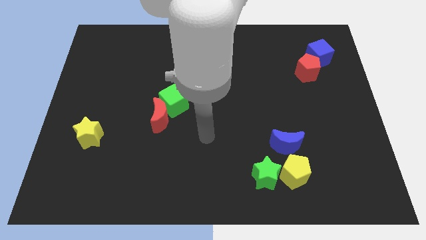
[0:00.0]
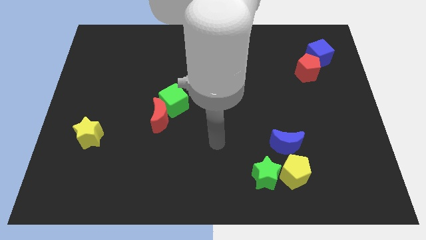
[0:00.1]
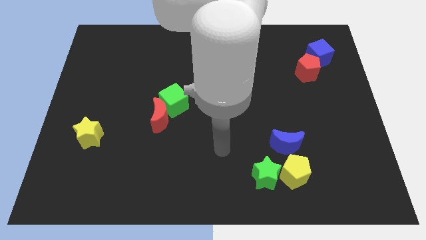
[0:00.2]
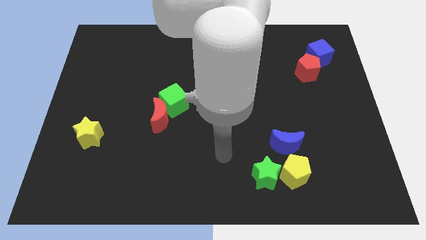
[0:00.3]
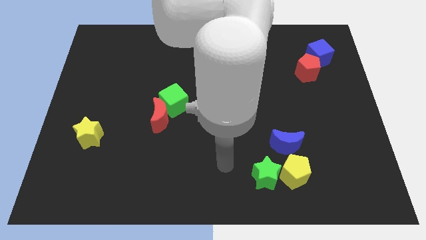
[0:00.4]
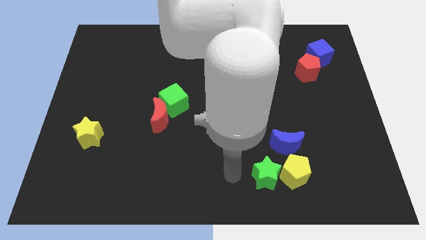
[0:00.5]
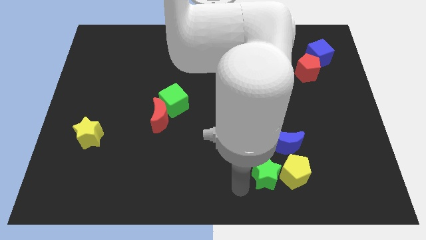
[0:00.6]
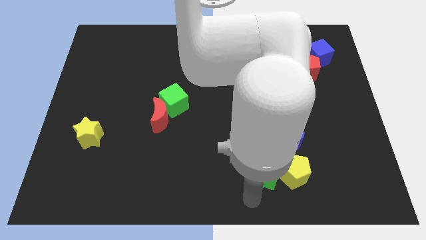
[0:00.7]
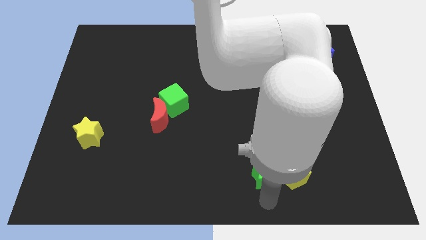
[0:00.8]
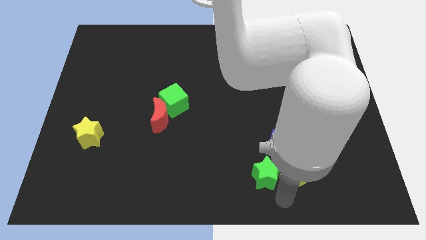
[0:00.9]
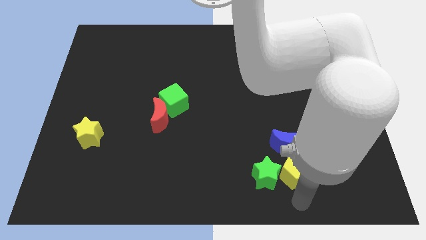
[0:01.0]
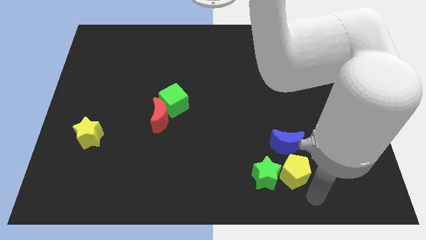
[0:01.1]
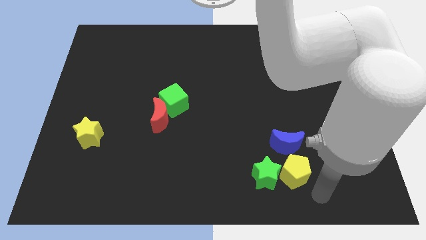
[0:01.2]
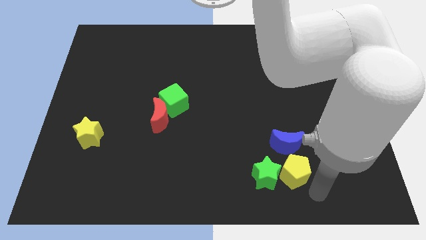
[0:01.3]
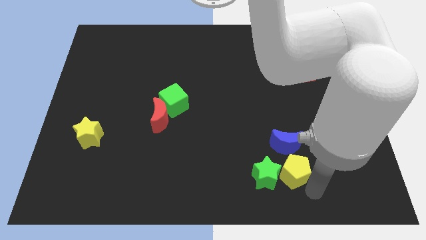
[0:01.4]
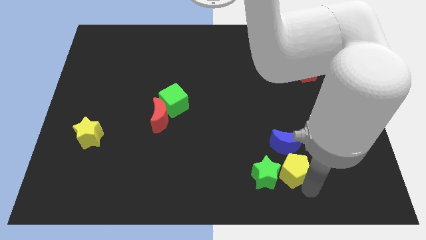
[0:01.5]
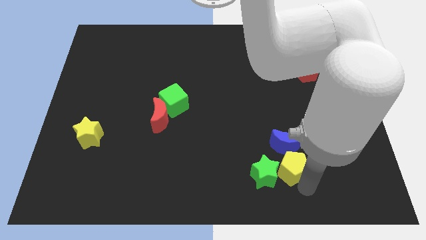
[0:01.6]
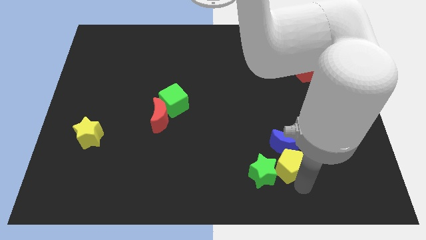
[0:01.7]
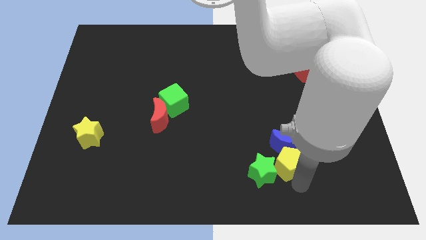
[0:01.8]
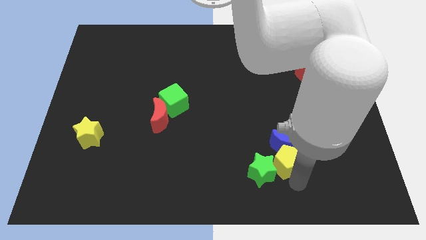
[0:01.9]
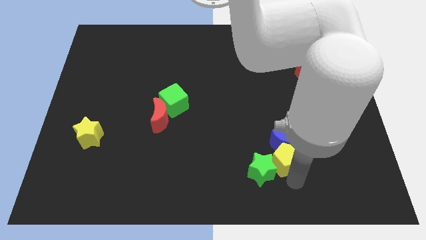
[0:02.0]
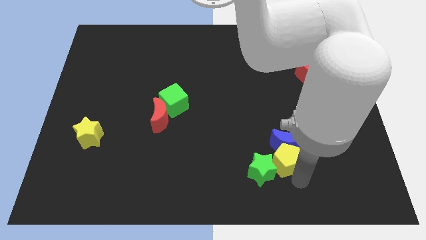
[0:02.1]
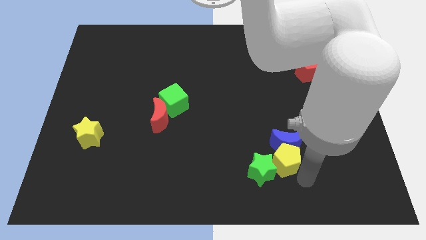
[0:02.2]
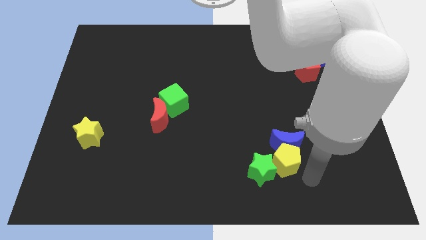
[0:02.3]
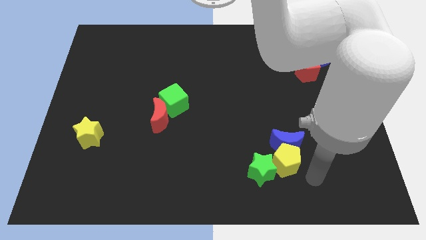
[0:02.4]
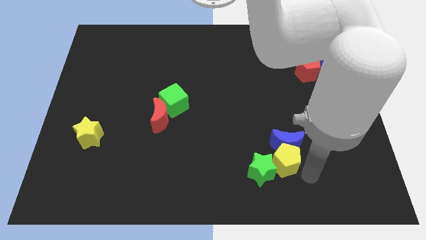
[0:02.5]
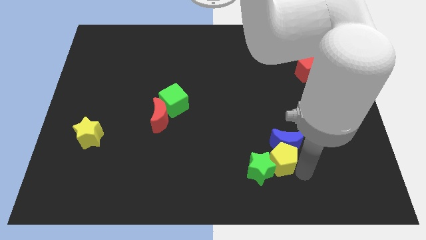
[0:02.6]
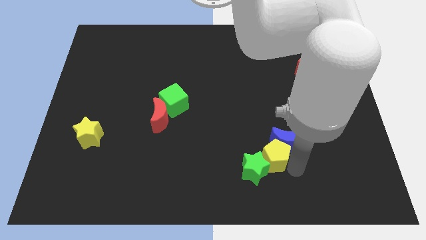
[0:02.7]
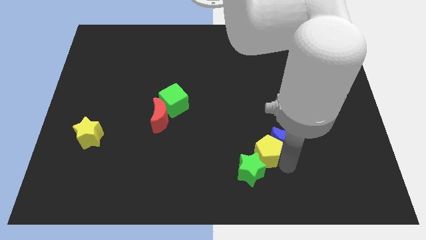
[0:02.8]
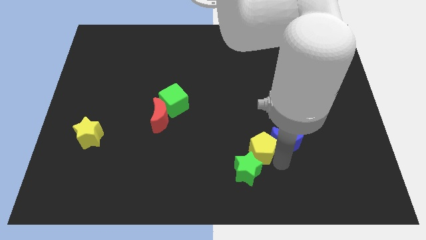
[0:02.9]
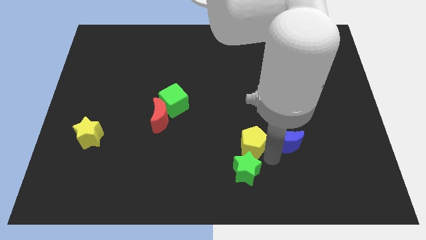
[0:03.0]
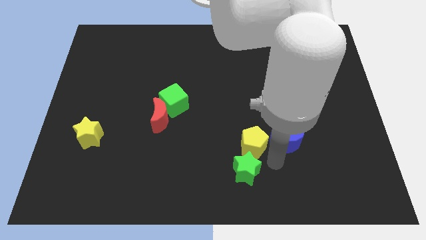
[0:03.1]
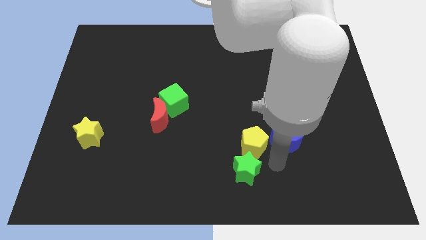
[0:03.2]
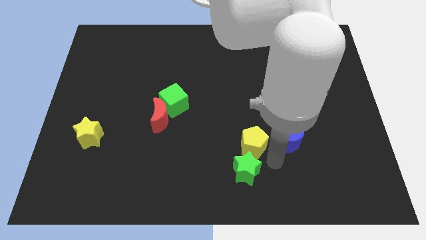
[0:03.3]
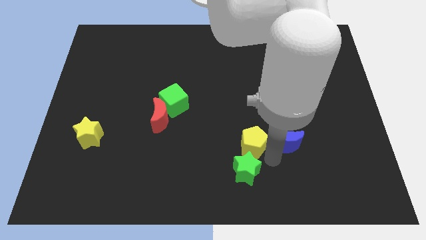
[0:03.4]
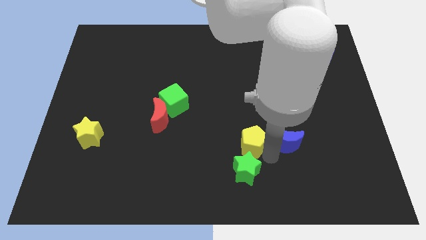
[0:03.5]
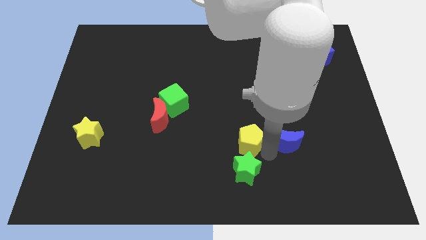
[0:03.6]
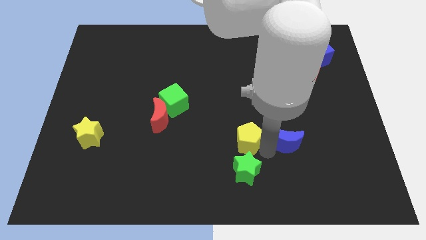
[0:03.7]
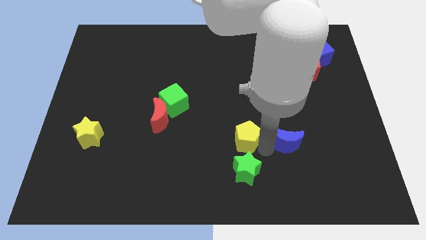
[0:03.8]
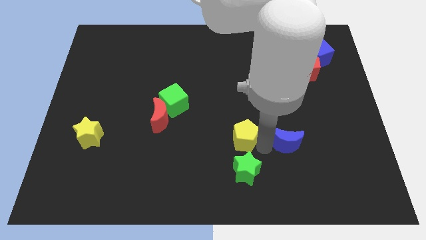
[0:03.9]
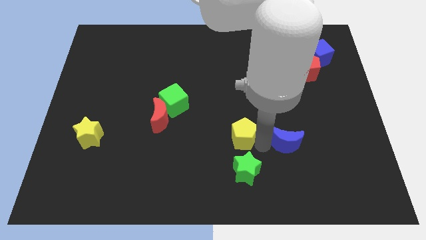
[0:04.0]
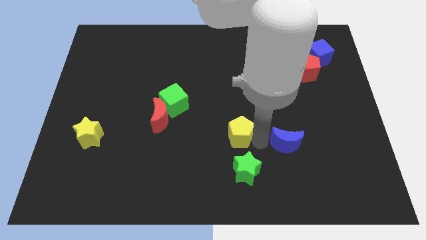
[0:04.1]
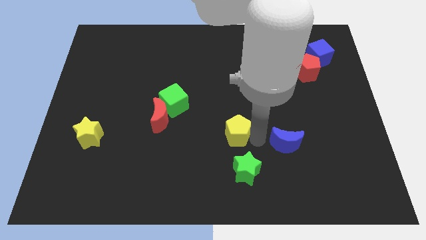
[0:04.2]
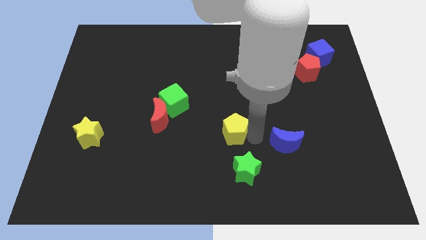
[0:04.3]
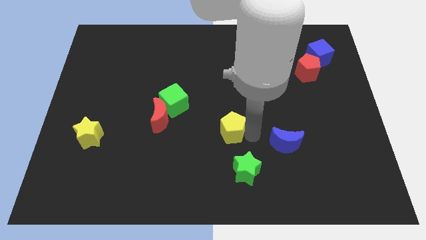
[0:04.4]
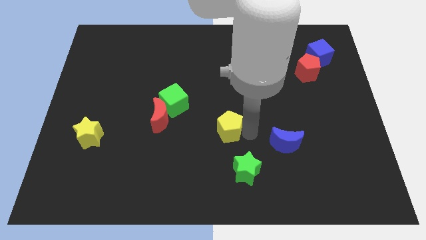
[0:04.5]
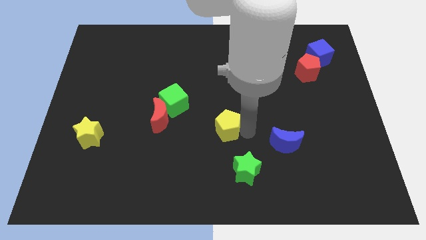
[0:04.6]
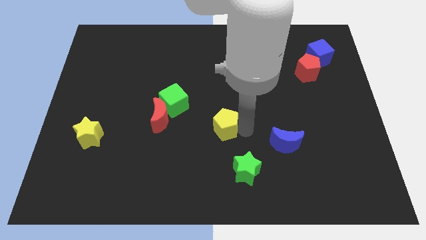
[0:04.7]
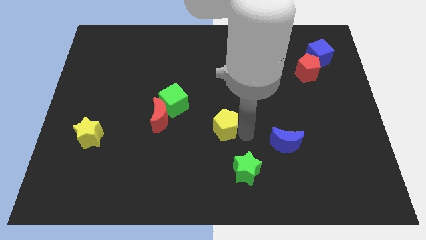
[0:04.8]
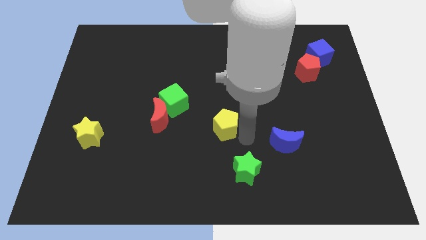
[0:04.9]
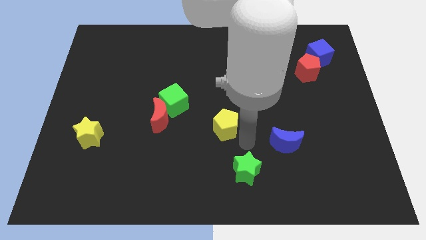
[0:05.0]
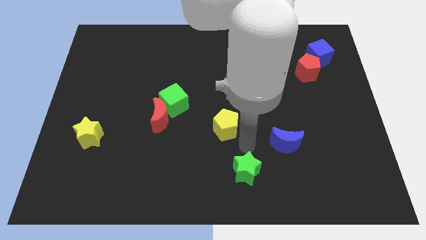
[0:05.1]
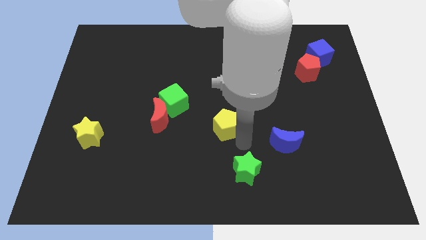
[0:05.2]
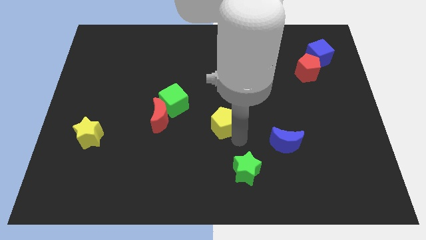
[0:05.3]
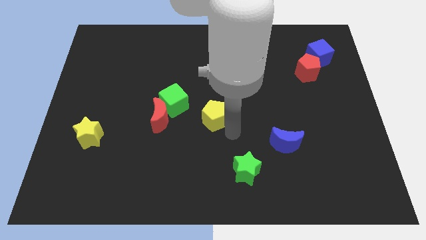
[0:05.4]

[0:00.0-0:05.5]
slide the yellow pentagon diagonally upwards and to the left

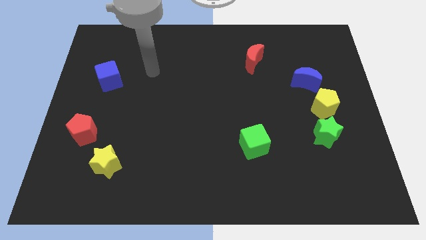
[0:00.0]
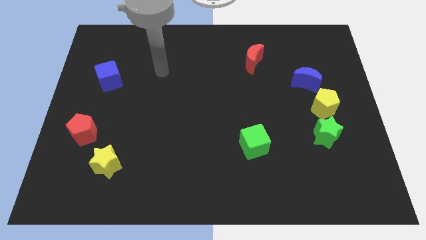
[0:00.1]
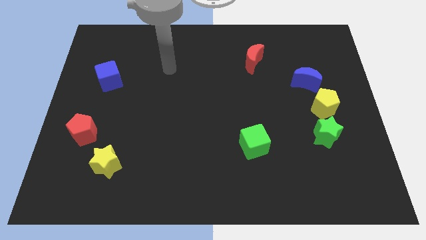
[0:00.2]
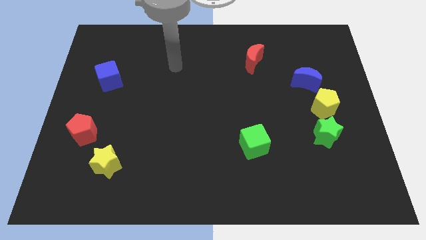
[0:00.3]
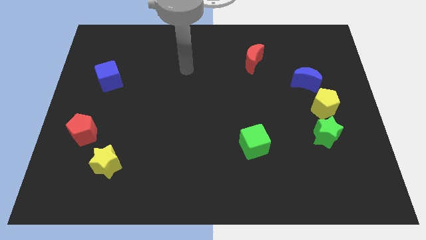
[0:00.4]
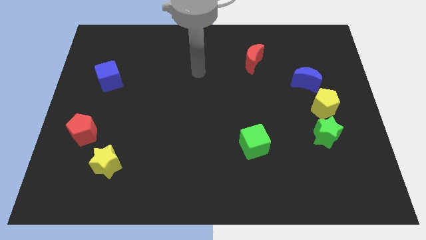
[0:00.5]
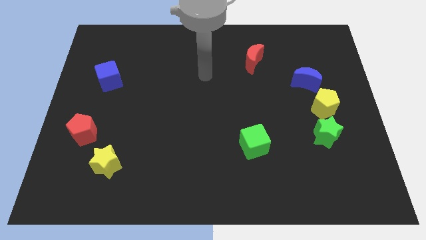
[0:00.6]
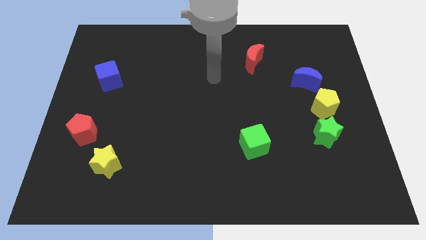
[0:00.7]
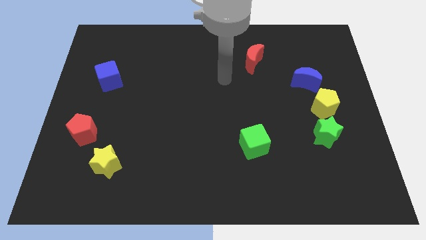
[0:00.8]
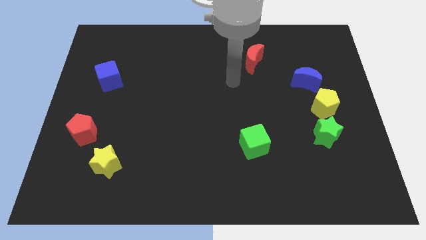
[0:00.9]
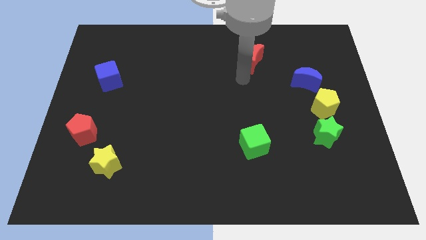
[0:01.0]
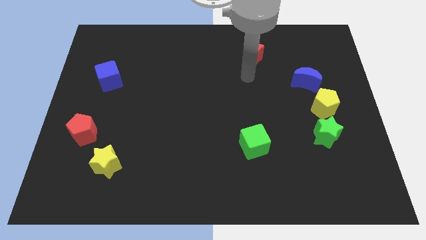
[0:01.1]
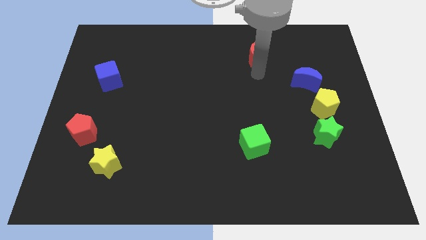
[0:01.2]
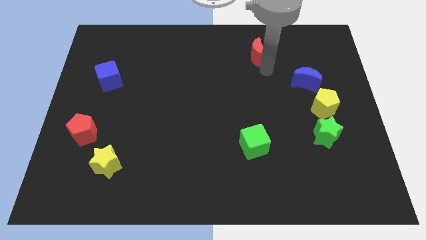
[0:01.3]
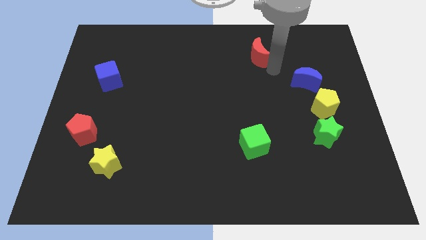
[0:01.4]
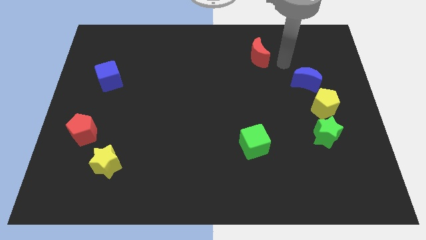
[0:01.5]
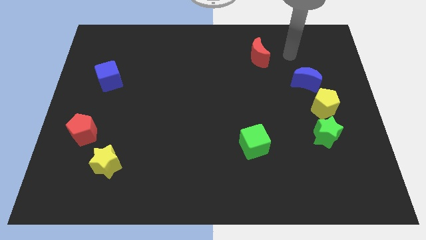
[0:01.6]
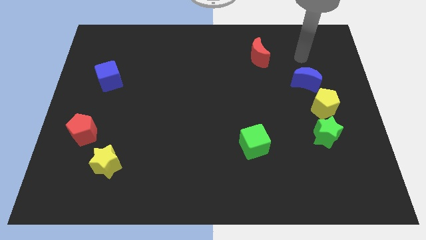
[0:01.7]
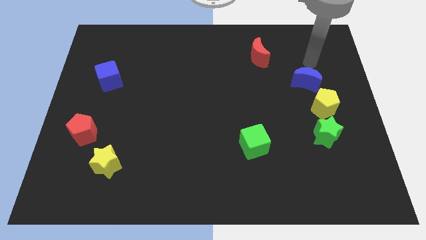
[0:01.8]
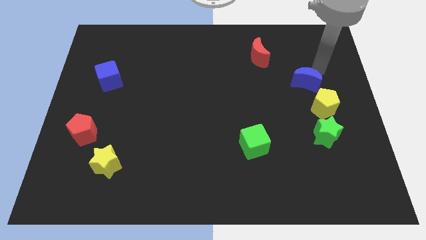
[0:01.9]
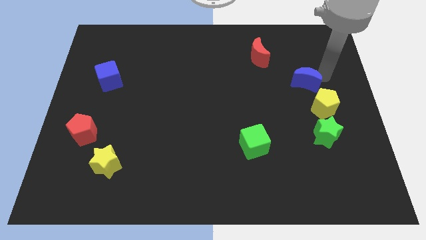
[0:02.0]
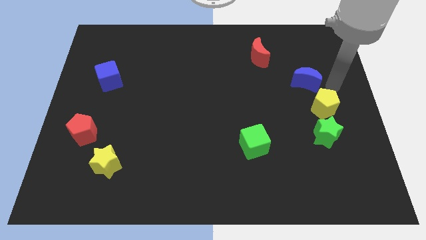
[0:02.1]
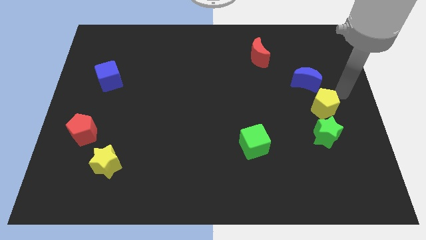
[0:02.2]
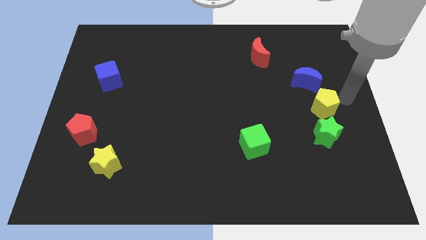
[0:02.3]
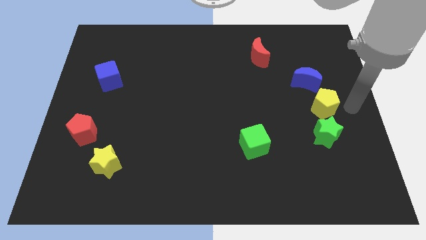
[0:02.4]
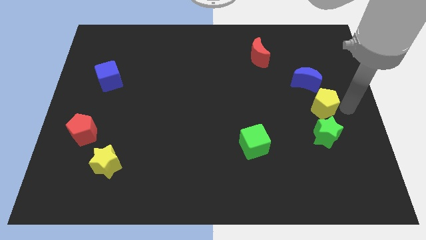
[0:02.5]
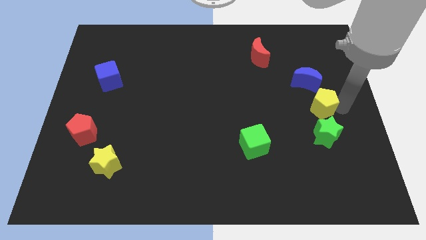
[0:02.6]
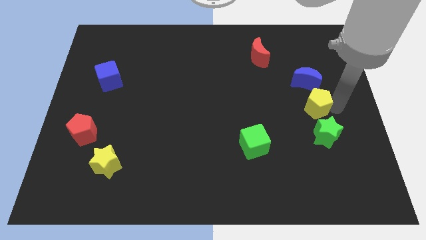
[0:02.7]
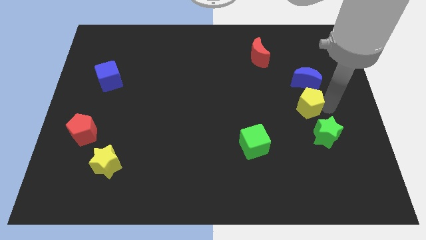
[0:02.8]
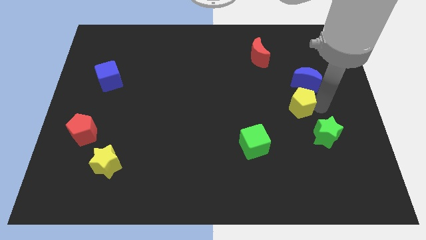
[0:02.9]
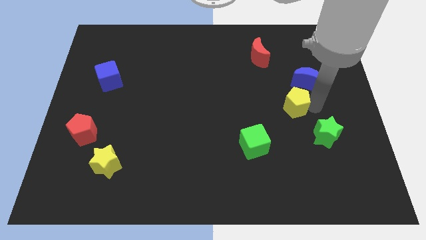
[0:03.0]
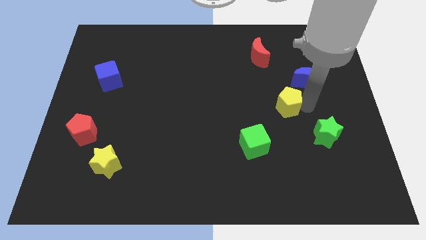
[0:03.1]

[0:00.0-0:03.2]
slightly move the yellow pentagon to the left
